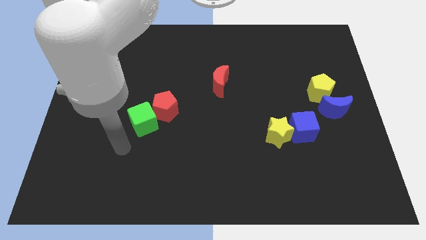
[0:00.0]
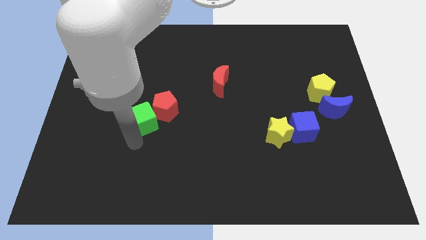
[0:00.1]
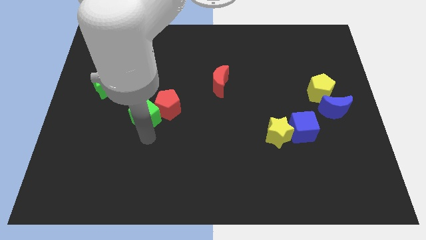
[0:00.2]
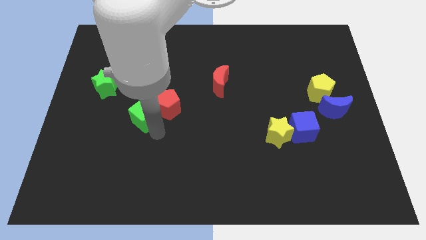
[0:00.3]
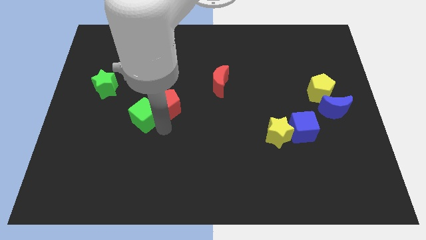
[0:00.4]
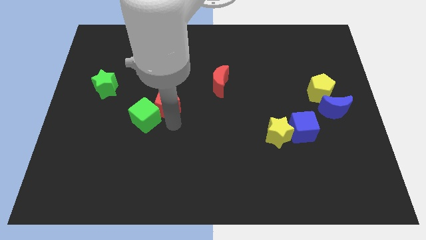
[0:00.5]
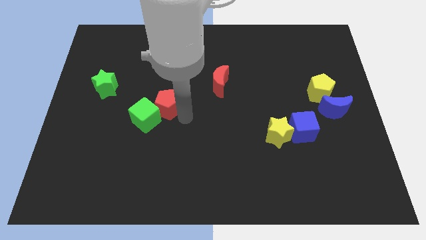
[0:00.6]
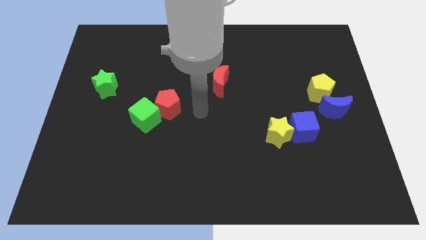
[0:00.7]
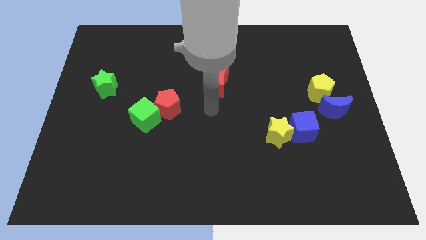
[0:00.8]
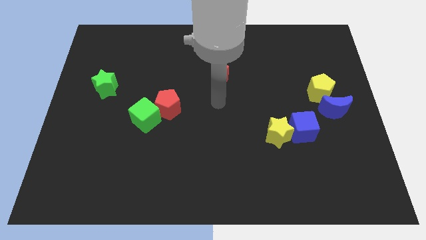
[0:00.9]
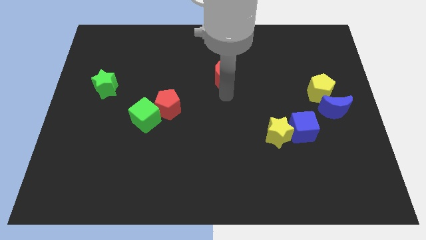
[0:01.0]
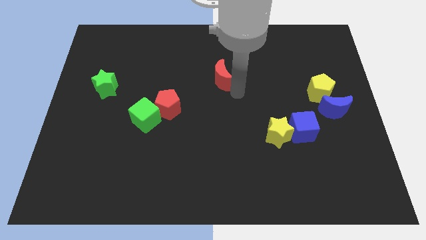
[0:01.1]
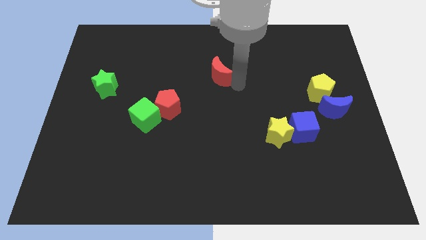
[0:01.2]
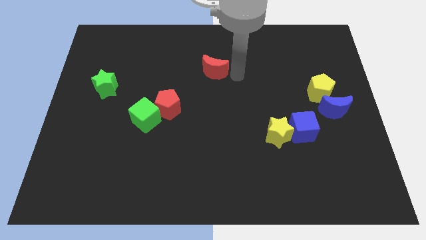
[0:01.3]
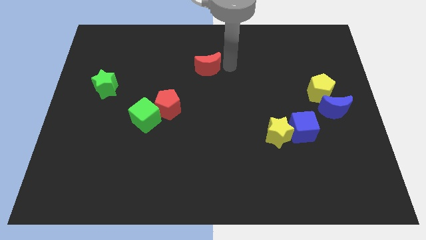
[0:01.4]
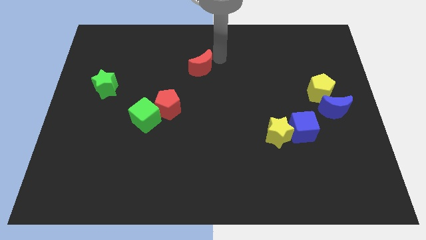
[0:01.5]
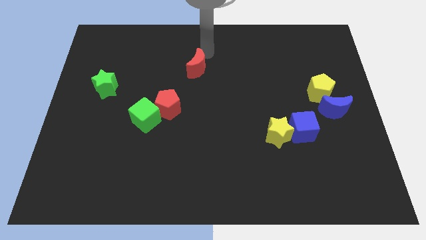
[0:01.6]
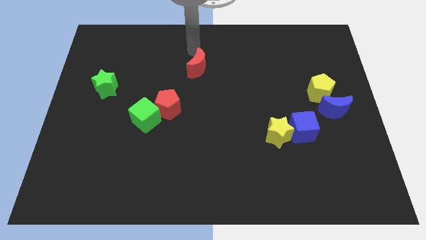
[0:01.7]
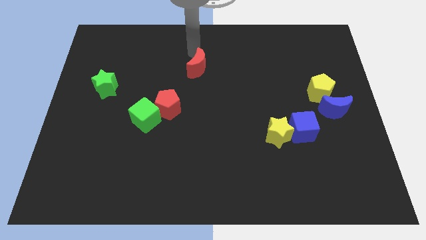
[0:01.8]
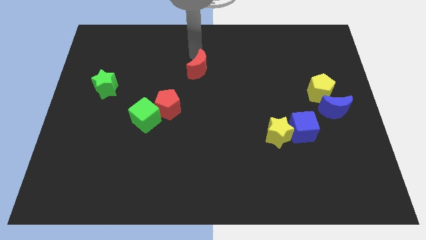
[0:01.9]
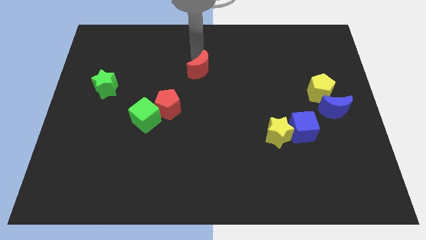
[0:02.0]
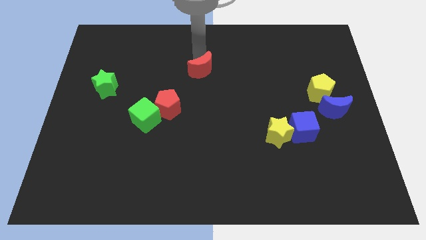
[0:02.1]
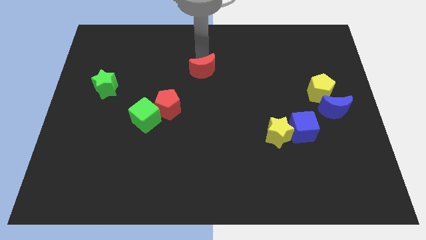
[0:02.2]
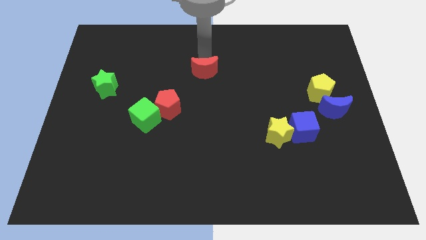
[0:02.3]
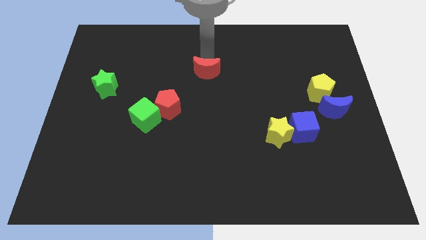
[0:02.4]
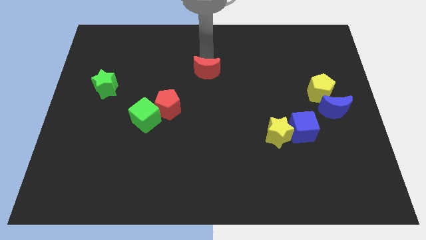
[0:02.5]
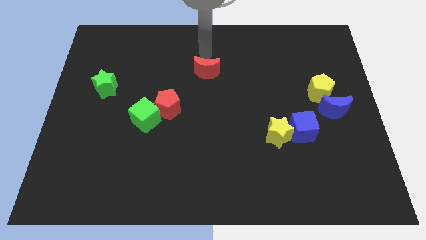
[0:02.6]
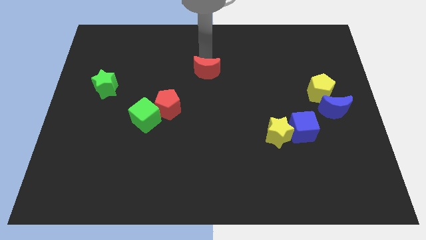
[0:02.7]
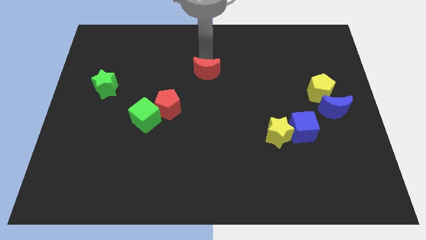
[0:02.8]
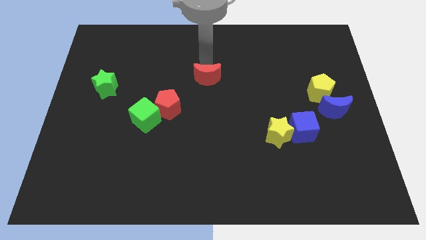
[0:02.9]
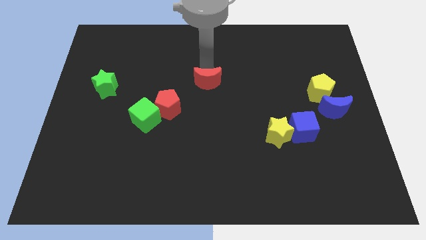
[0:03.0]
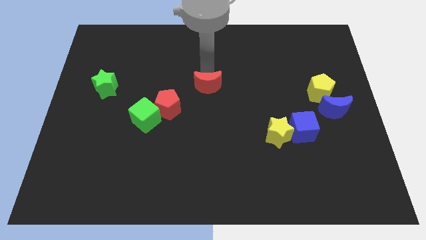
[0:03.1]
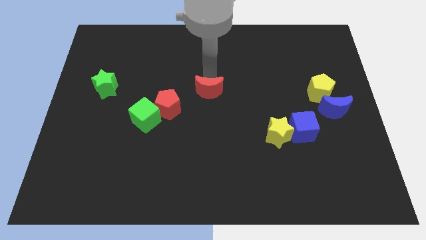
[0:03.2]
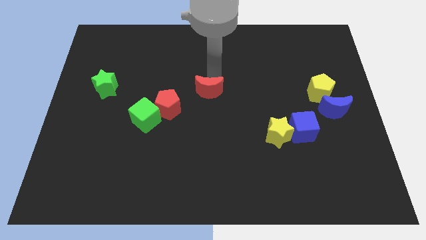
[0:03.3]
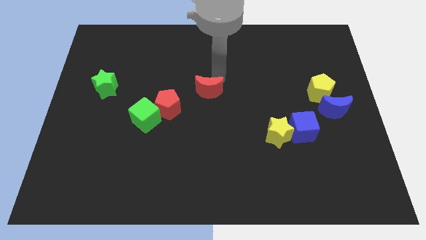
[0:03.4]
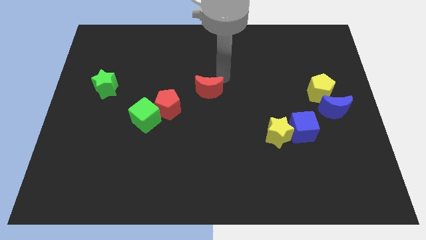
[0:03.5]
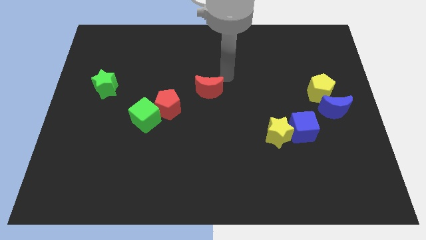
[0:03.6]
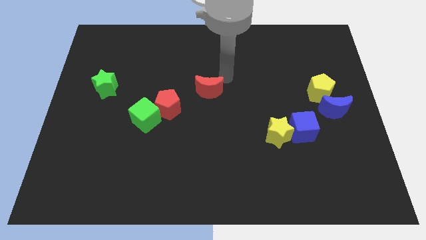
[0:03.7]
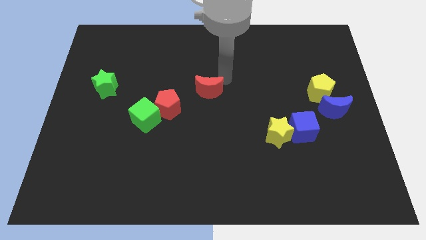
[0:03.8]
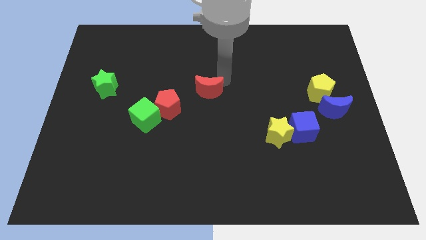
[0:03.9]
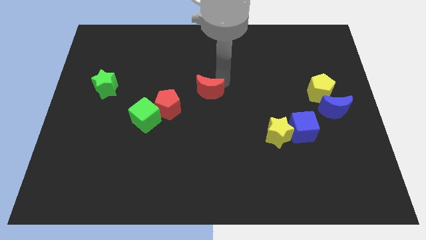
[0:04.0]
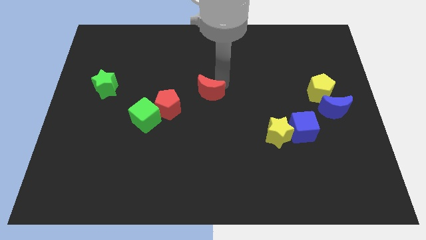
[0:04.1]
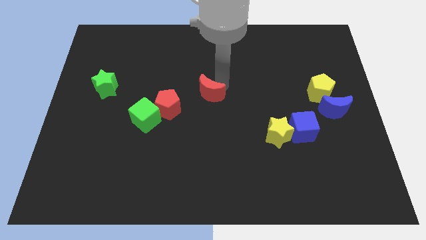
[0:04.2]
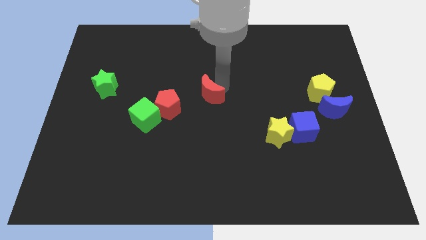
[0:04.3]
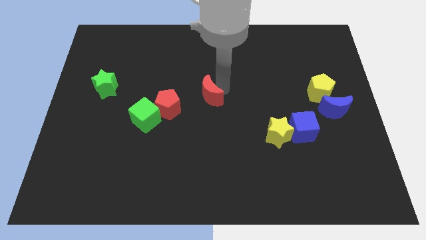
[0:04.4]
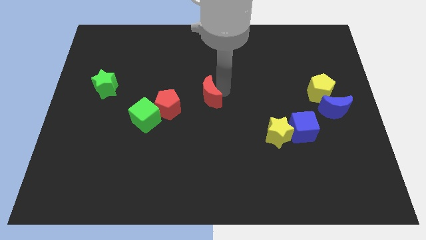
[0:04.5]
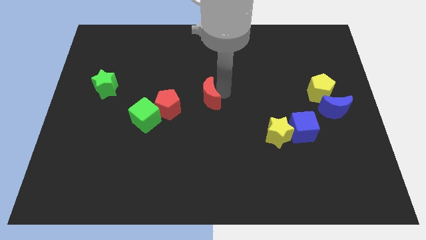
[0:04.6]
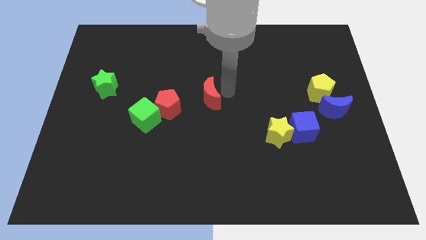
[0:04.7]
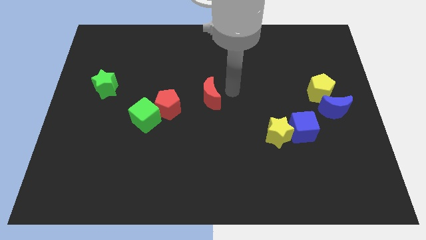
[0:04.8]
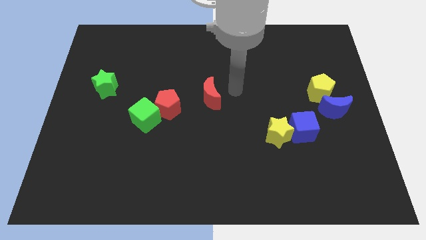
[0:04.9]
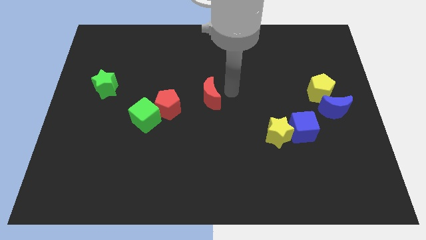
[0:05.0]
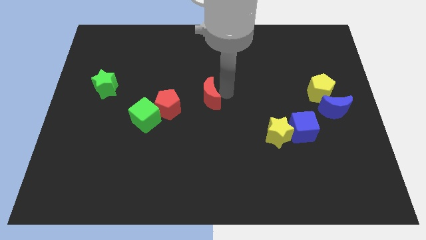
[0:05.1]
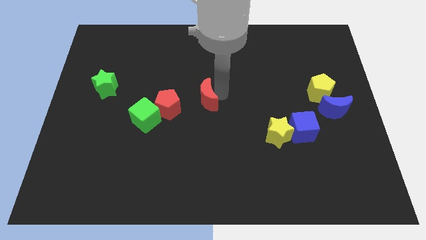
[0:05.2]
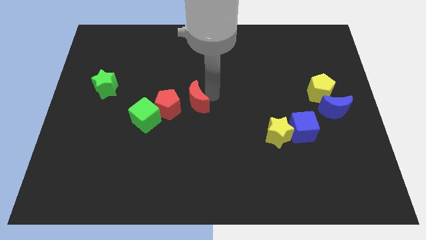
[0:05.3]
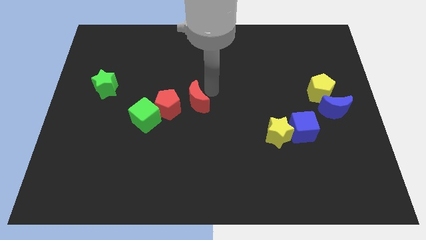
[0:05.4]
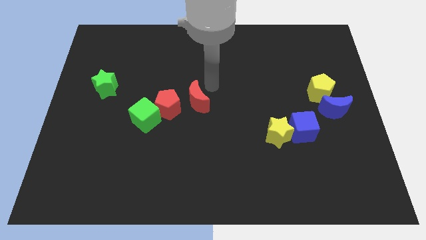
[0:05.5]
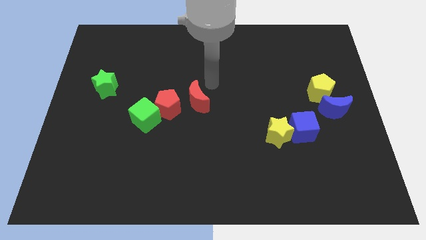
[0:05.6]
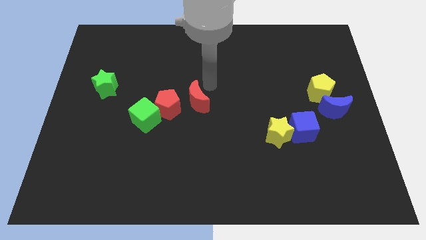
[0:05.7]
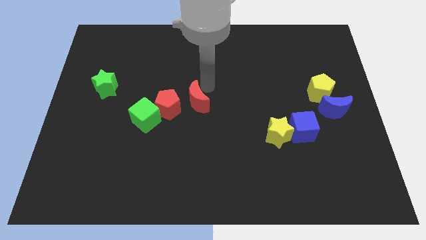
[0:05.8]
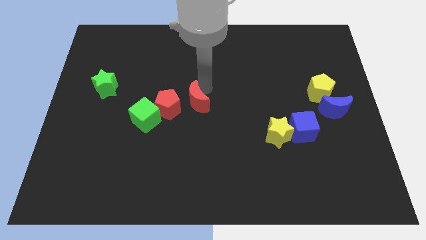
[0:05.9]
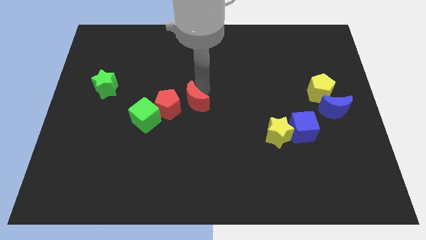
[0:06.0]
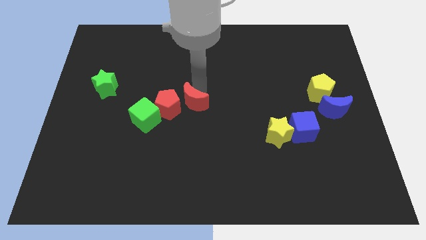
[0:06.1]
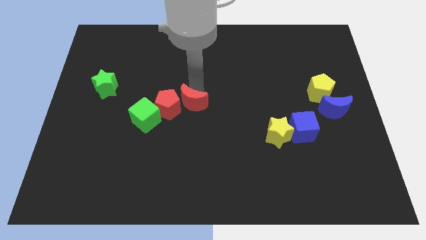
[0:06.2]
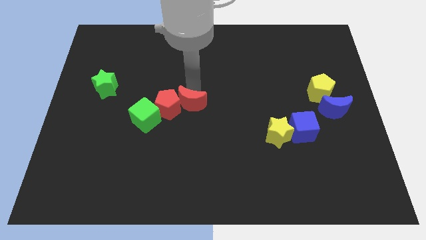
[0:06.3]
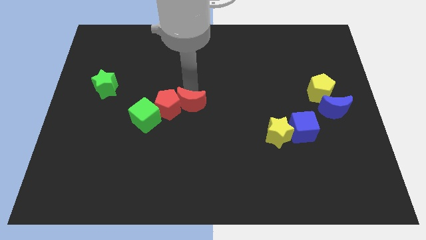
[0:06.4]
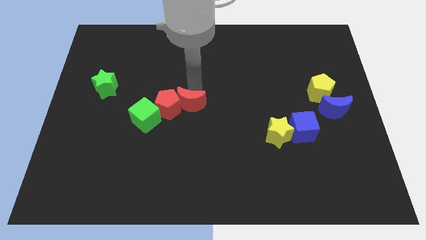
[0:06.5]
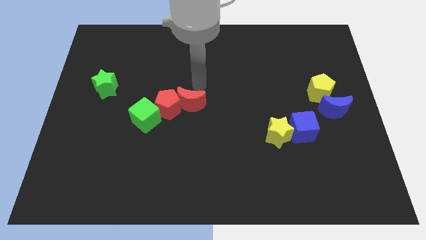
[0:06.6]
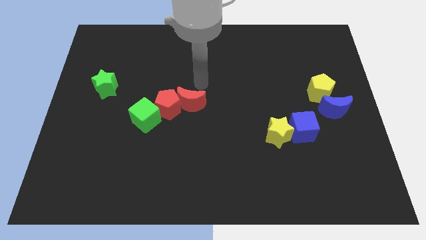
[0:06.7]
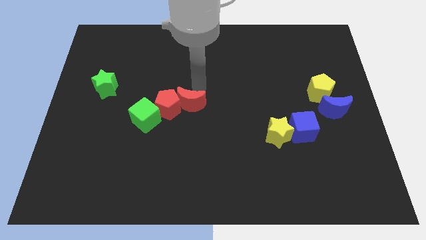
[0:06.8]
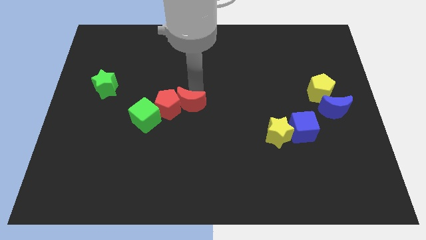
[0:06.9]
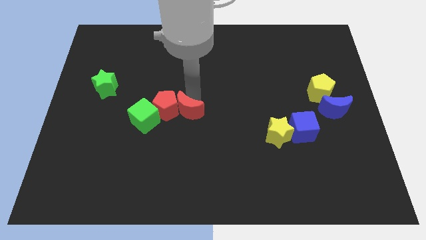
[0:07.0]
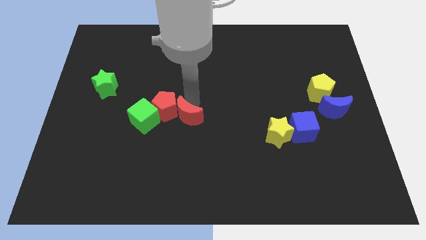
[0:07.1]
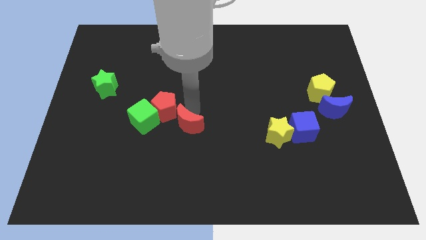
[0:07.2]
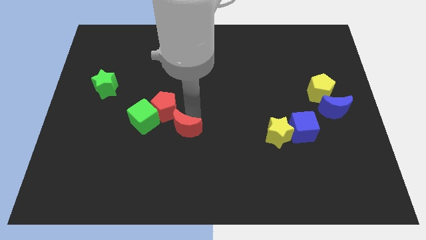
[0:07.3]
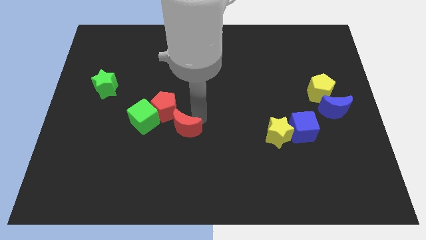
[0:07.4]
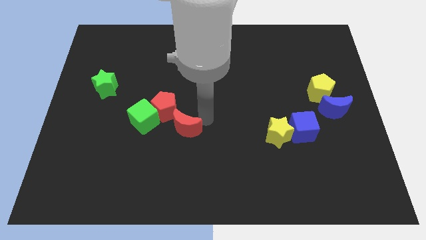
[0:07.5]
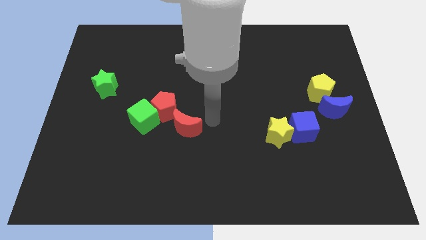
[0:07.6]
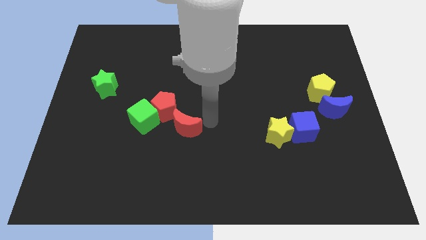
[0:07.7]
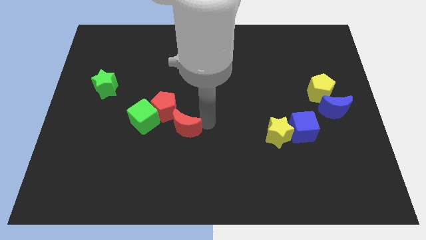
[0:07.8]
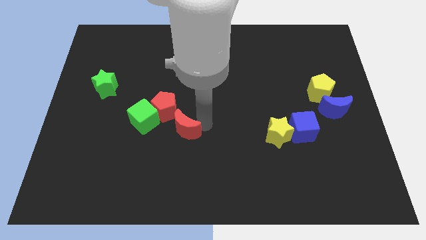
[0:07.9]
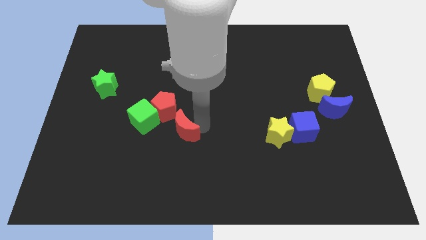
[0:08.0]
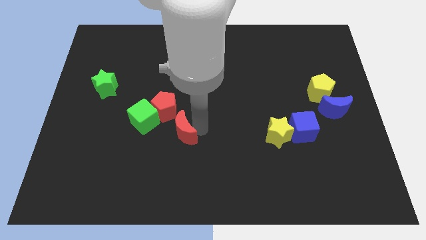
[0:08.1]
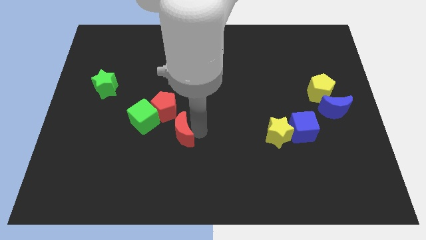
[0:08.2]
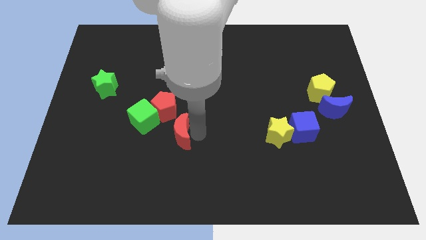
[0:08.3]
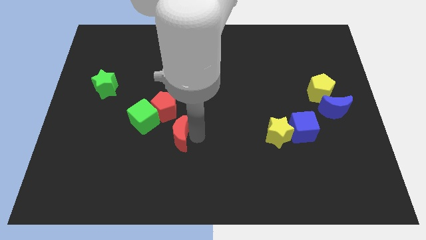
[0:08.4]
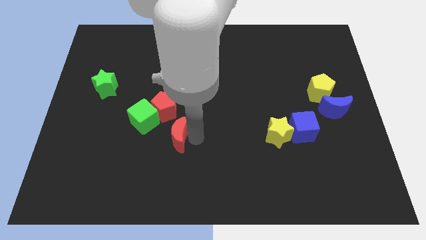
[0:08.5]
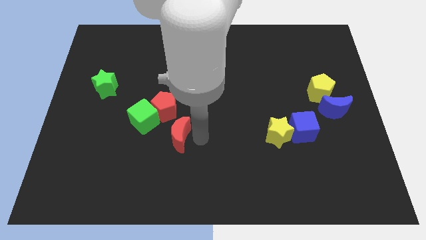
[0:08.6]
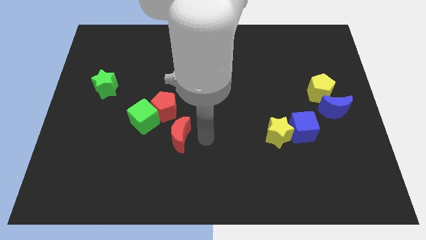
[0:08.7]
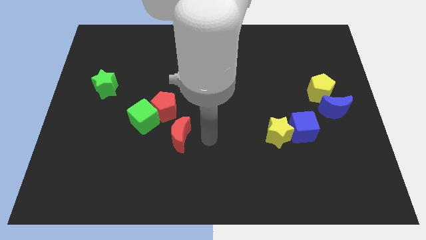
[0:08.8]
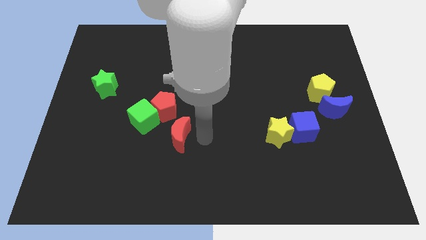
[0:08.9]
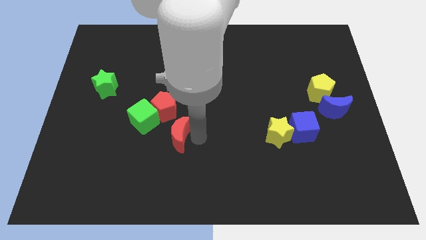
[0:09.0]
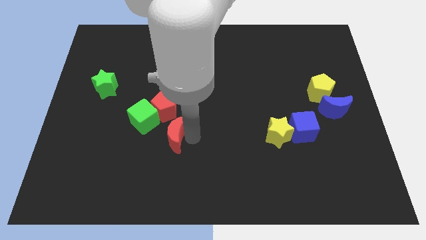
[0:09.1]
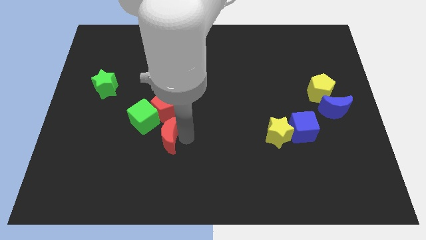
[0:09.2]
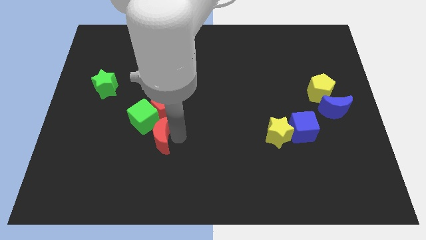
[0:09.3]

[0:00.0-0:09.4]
push the red moon down and left
